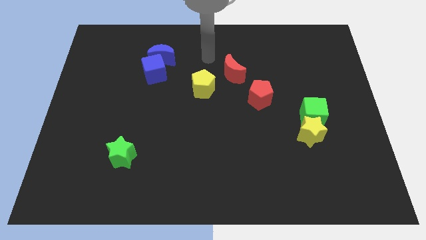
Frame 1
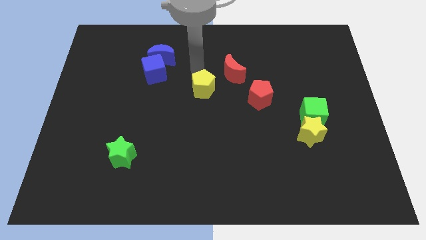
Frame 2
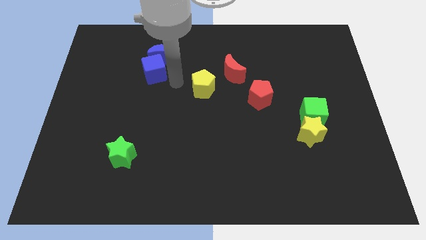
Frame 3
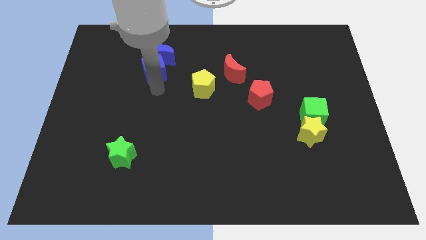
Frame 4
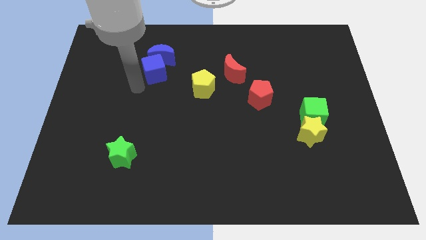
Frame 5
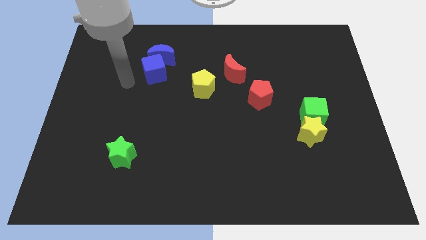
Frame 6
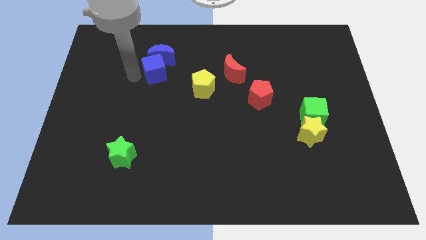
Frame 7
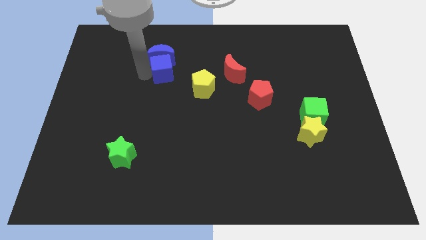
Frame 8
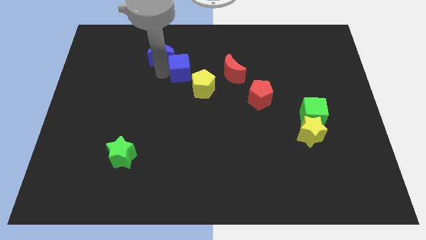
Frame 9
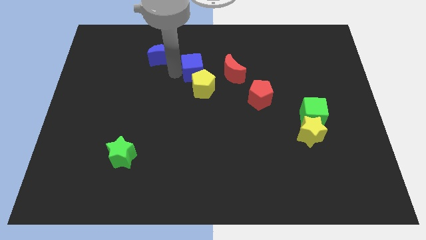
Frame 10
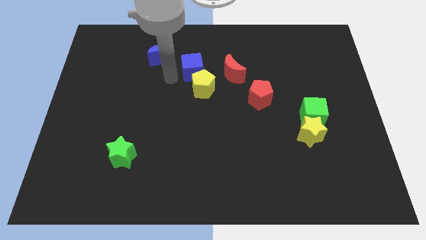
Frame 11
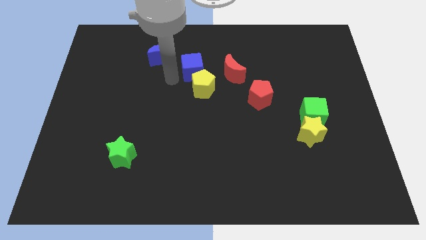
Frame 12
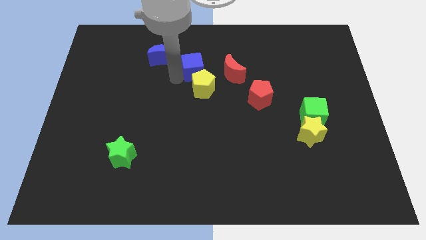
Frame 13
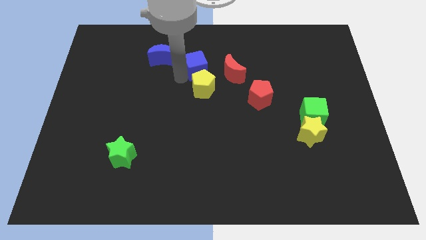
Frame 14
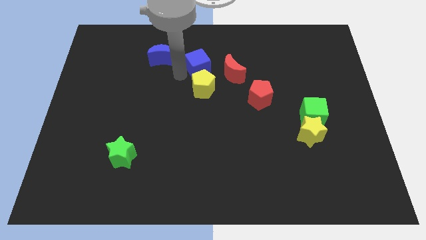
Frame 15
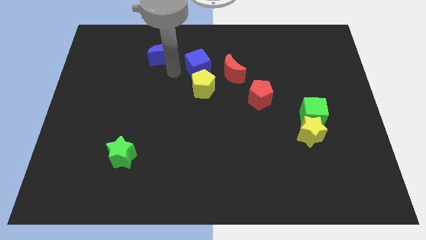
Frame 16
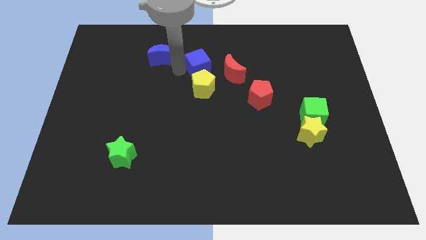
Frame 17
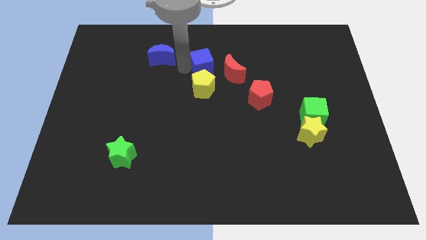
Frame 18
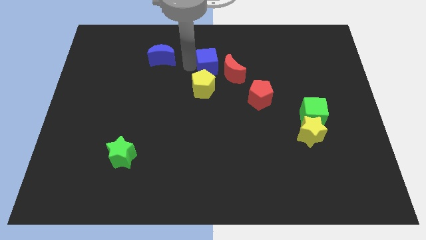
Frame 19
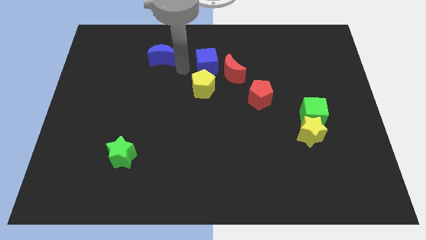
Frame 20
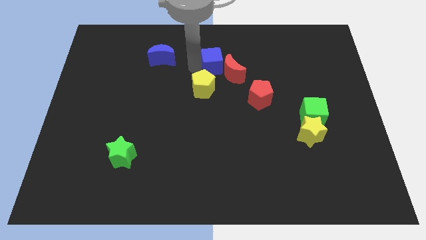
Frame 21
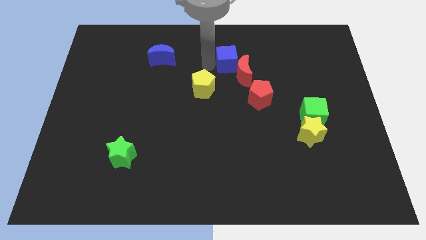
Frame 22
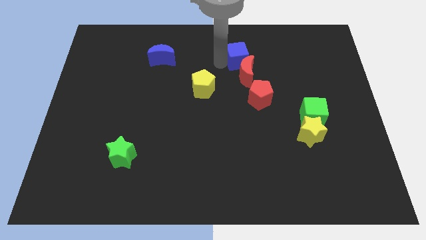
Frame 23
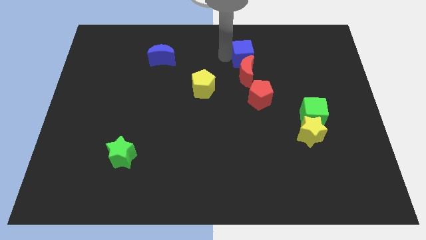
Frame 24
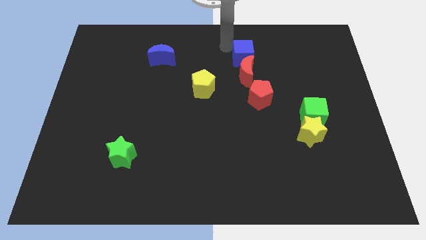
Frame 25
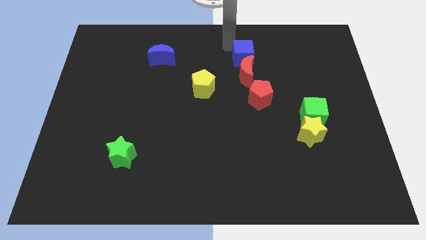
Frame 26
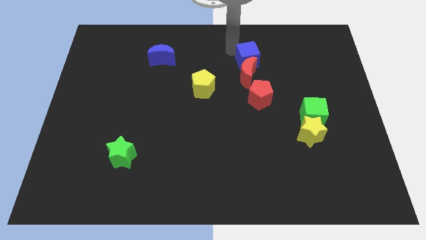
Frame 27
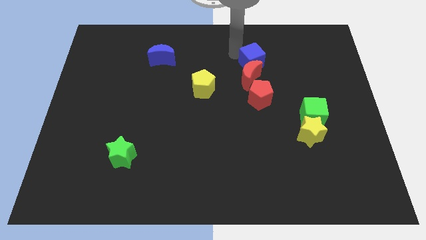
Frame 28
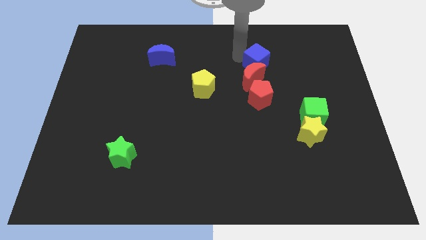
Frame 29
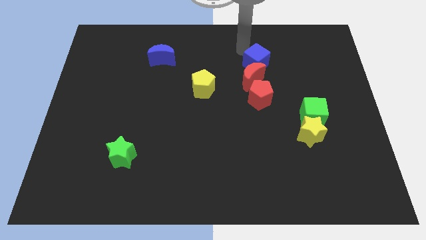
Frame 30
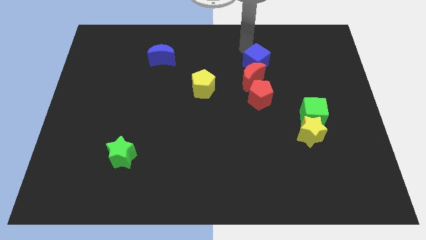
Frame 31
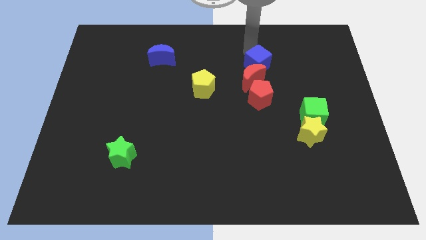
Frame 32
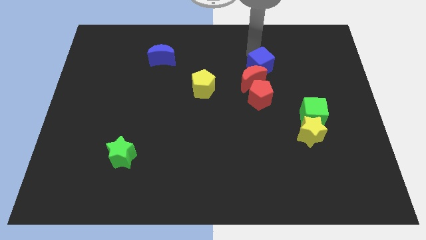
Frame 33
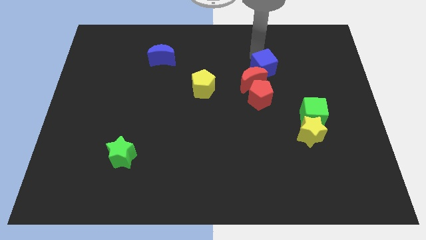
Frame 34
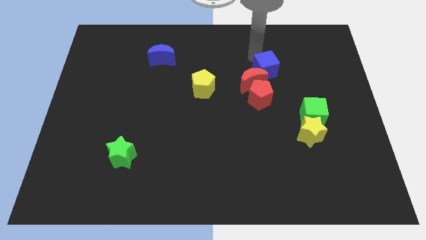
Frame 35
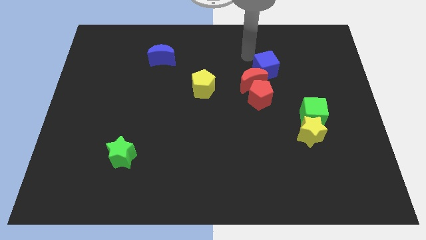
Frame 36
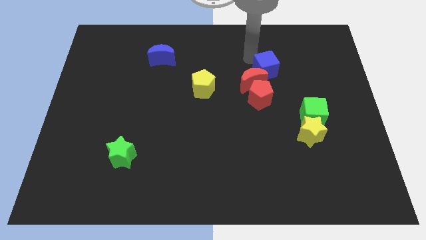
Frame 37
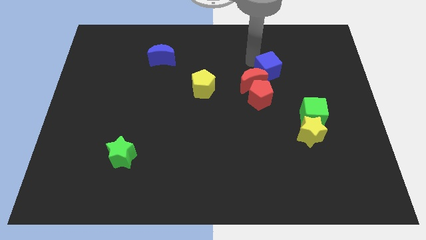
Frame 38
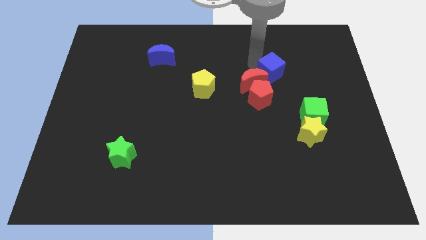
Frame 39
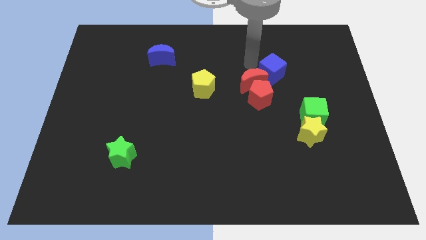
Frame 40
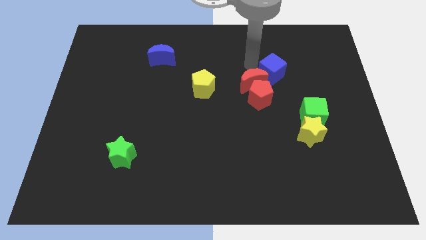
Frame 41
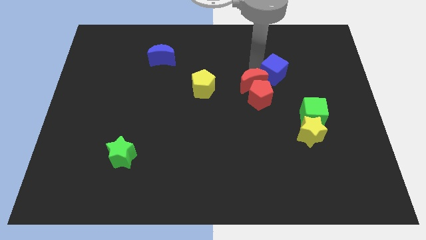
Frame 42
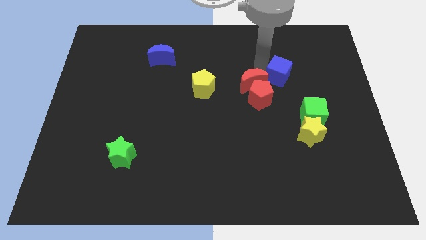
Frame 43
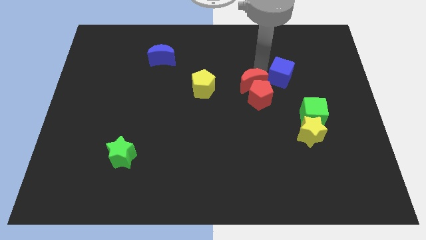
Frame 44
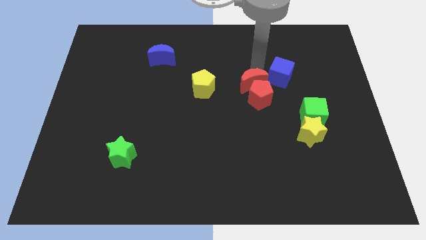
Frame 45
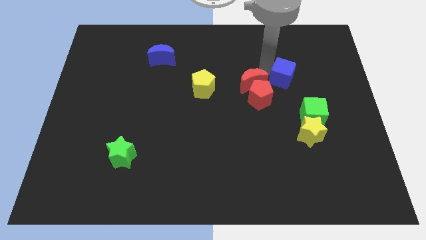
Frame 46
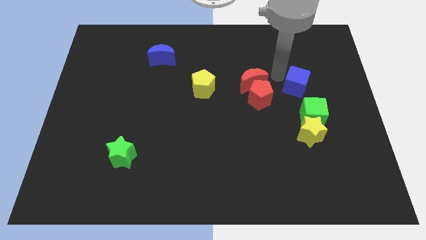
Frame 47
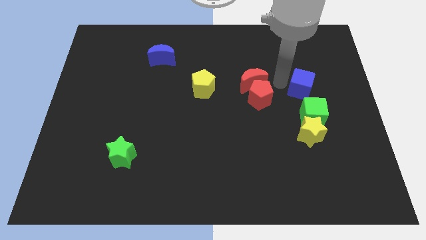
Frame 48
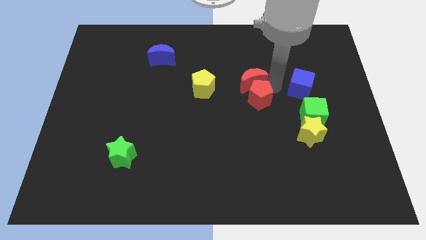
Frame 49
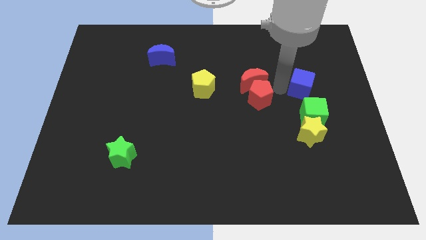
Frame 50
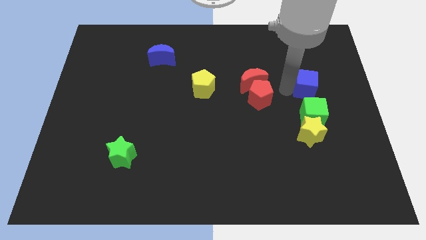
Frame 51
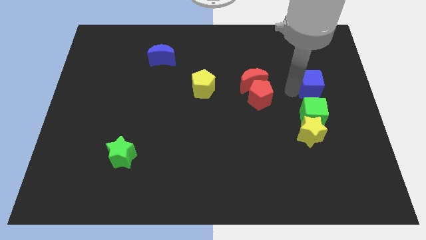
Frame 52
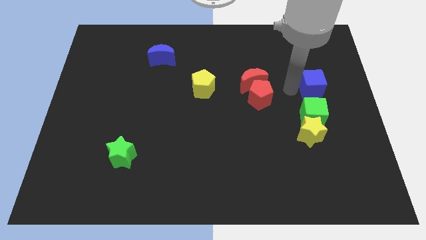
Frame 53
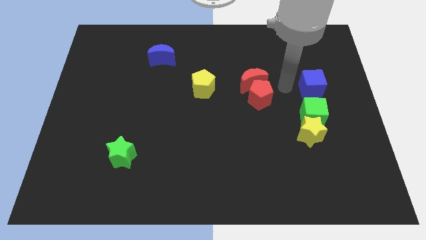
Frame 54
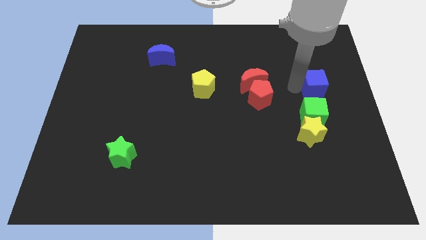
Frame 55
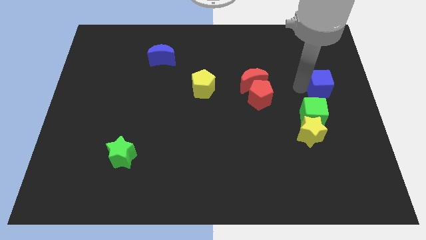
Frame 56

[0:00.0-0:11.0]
put the blue cube to the right side of the board

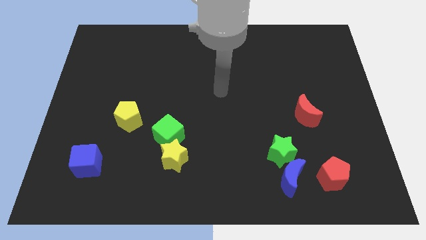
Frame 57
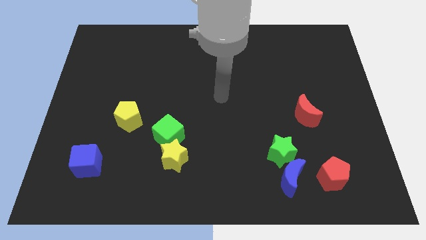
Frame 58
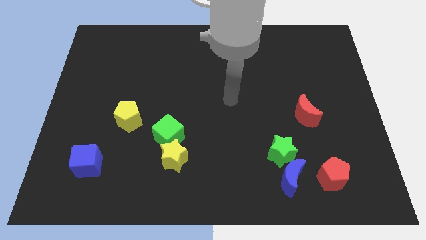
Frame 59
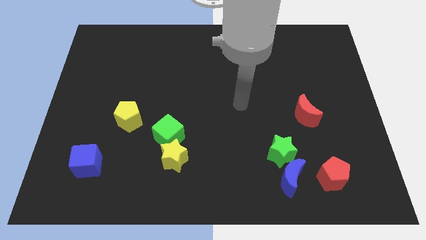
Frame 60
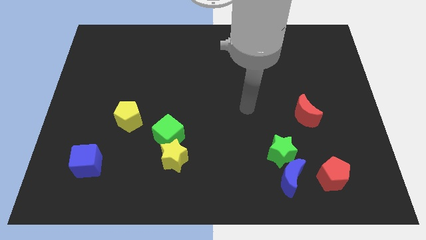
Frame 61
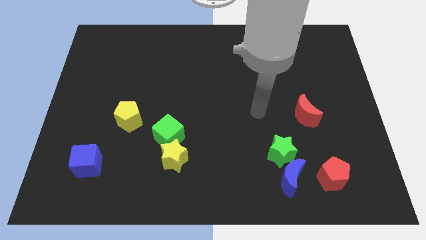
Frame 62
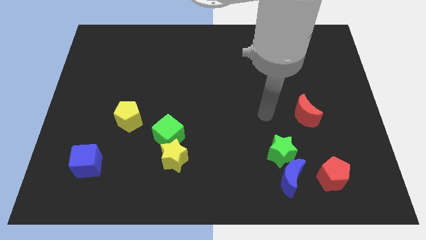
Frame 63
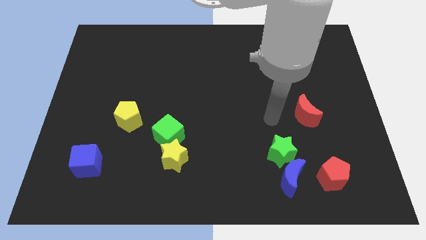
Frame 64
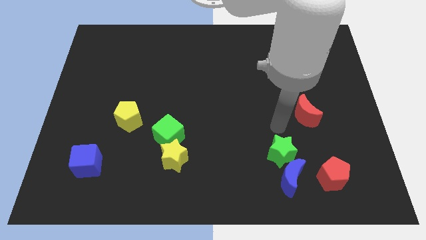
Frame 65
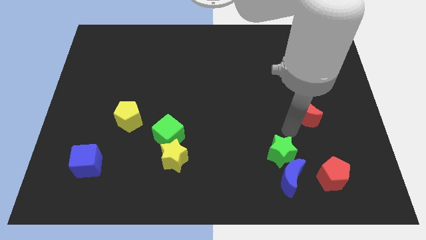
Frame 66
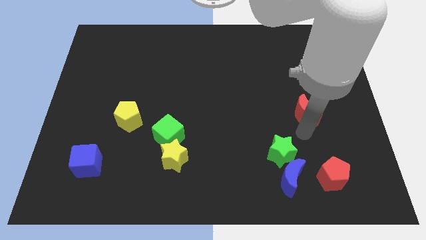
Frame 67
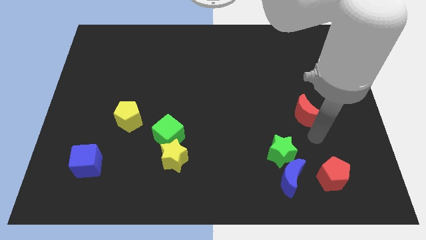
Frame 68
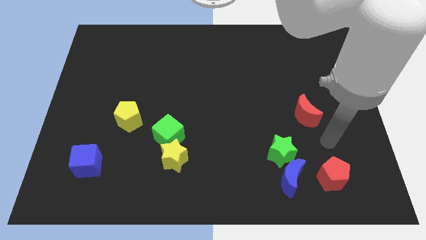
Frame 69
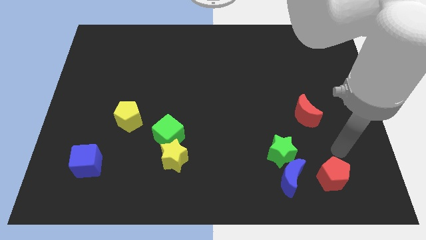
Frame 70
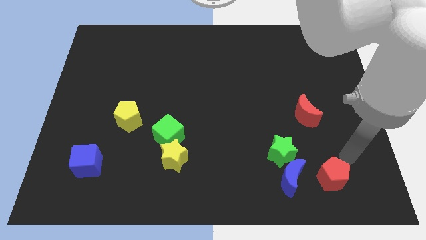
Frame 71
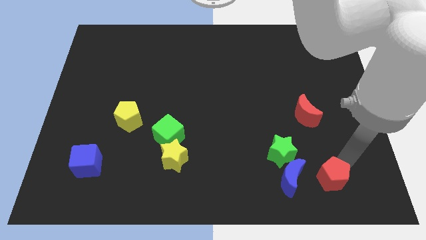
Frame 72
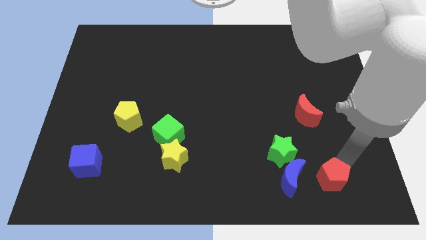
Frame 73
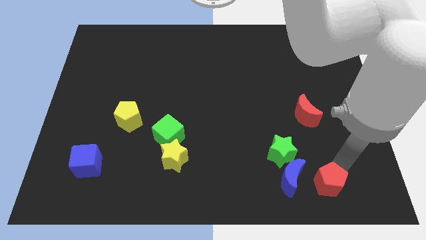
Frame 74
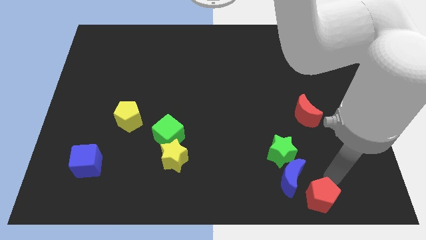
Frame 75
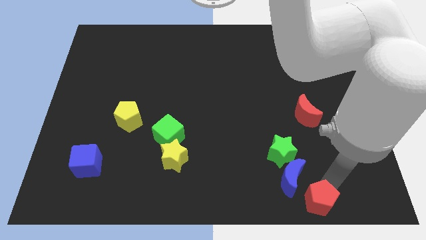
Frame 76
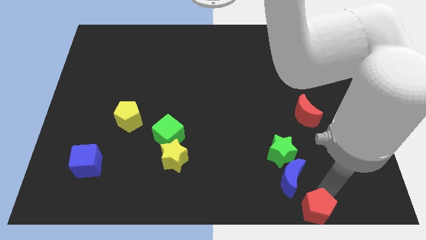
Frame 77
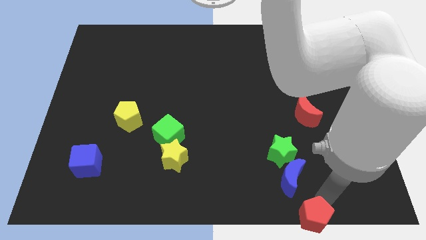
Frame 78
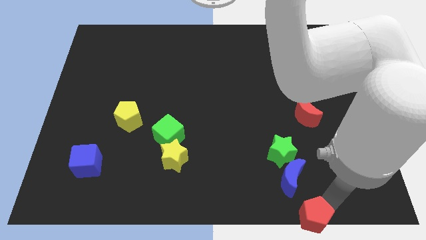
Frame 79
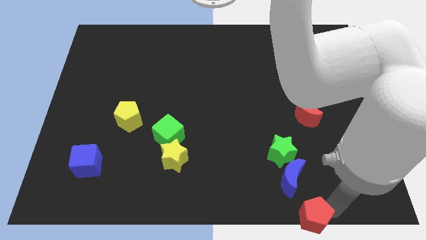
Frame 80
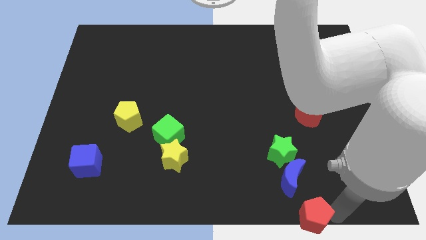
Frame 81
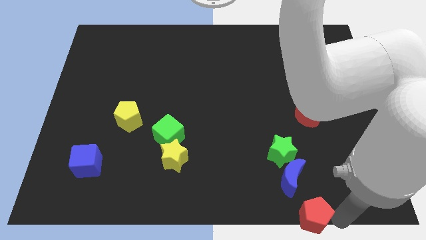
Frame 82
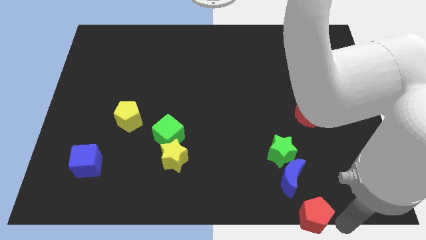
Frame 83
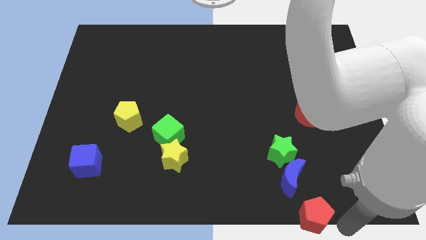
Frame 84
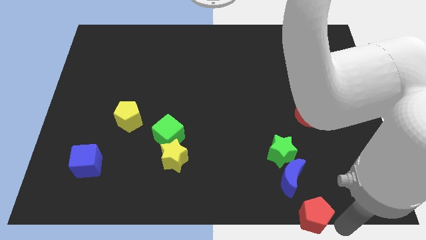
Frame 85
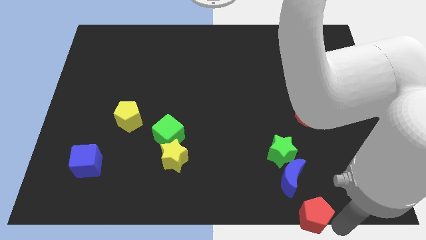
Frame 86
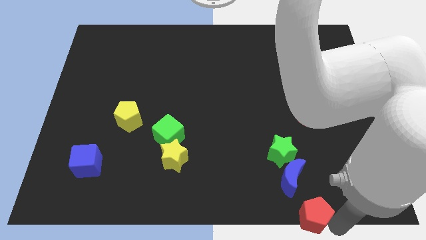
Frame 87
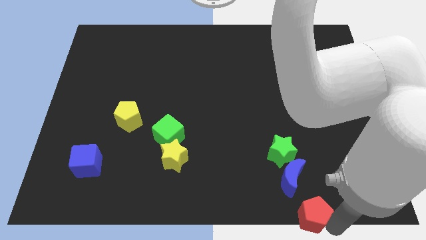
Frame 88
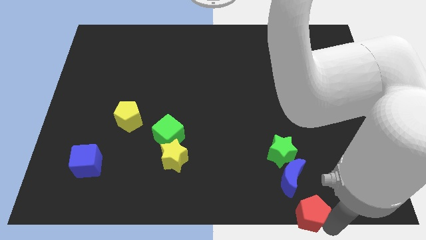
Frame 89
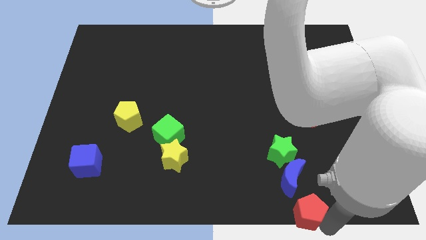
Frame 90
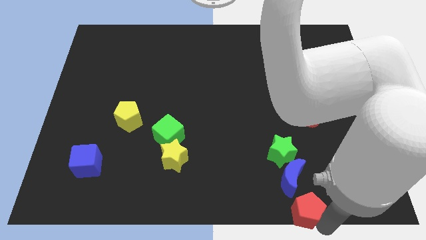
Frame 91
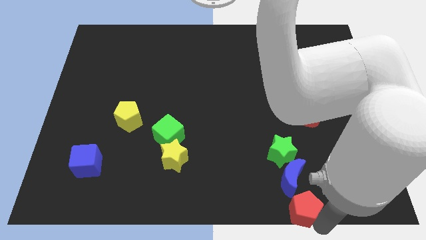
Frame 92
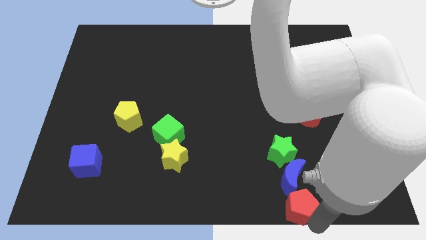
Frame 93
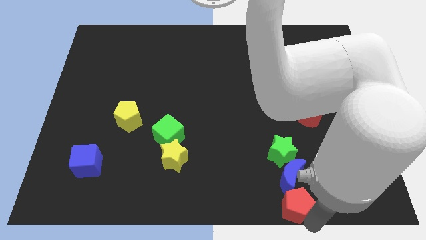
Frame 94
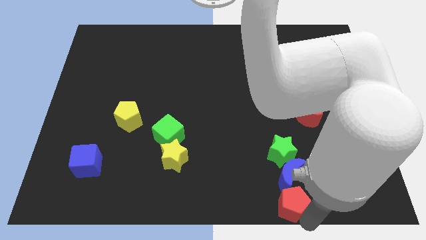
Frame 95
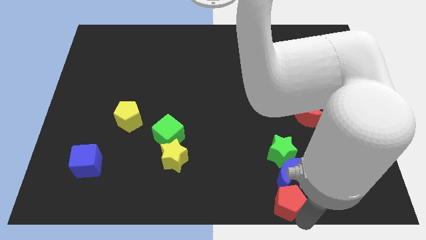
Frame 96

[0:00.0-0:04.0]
slide the red pentagon to the bottom side
